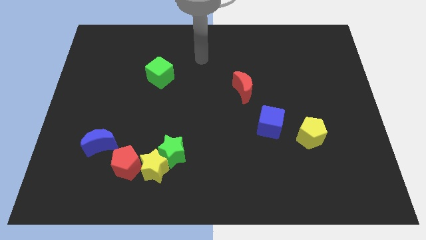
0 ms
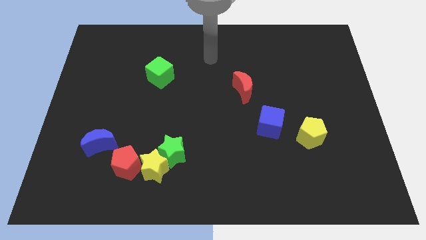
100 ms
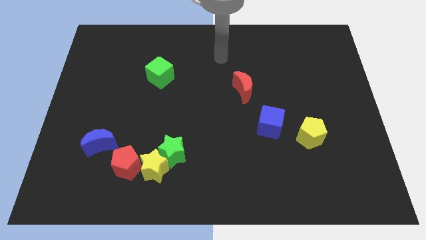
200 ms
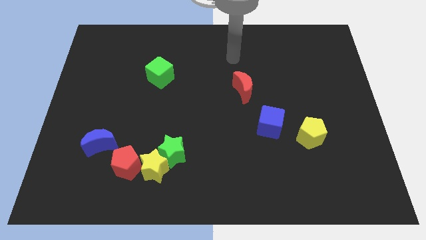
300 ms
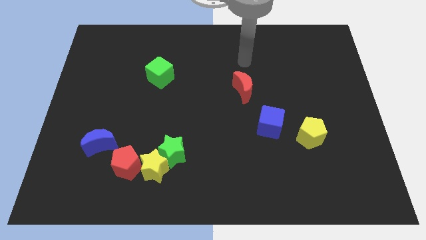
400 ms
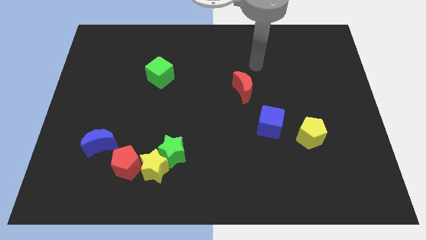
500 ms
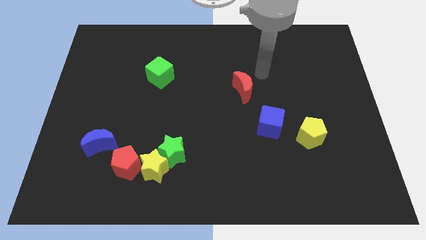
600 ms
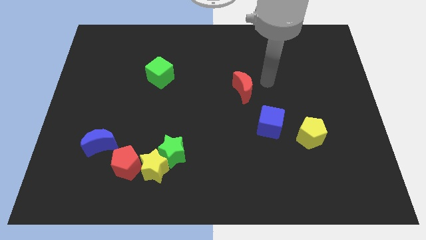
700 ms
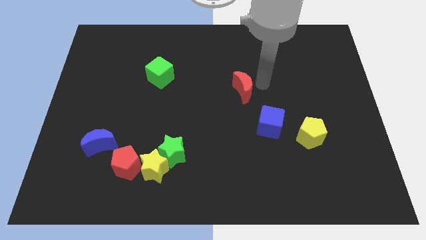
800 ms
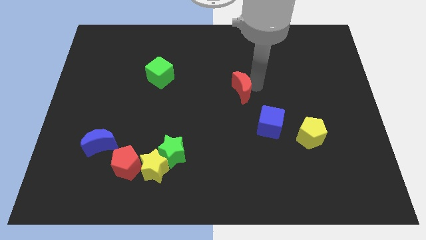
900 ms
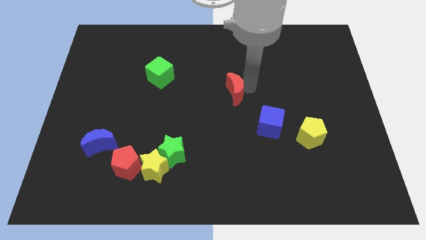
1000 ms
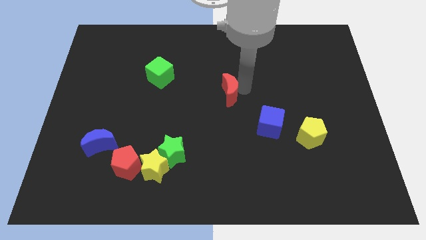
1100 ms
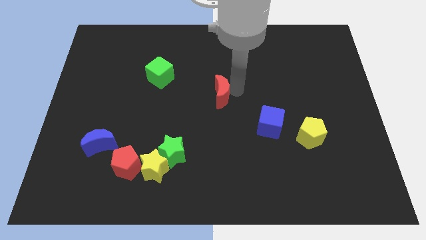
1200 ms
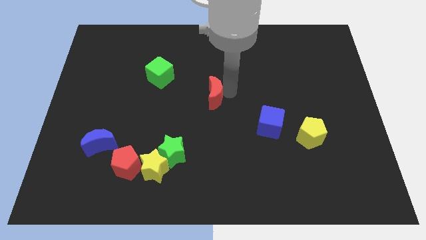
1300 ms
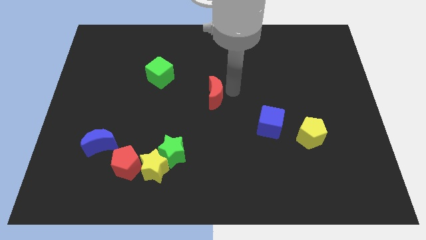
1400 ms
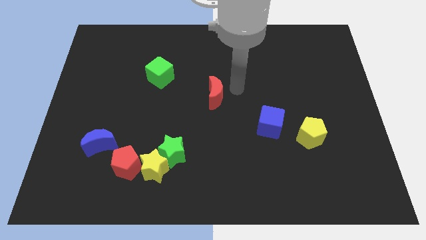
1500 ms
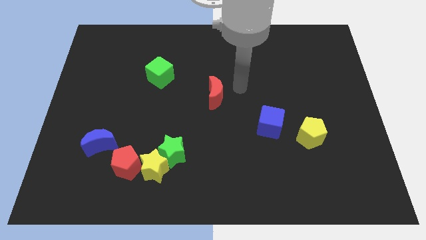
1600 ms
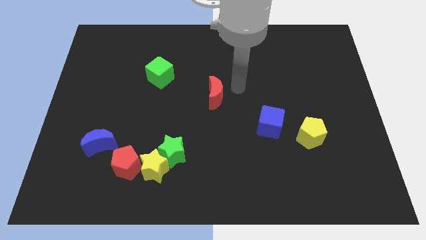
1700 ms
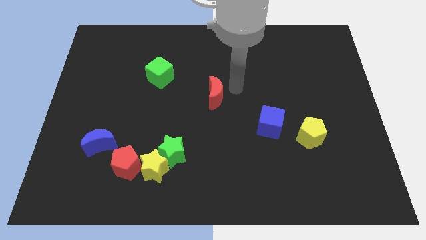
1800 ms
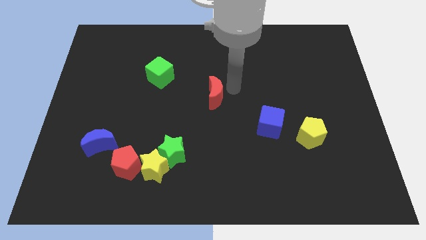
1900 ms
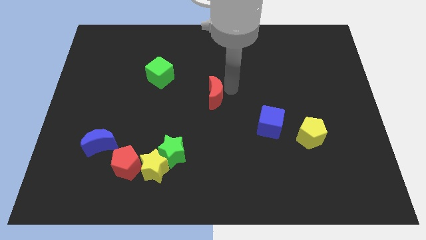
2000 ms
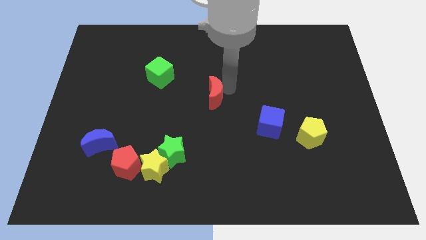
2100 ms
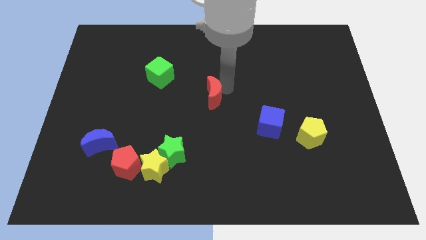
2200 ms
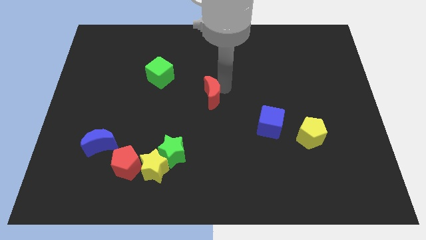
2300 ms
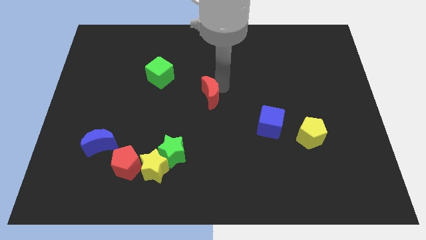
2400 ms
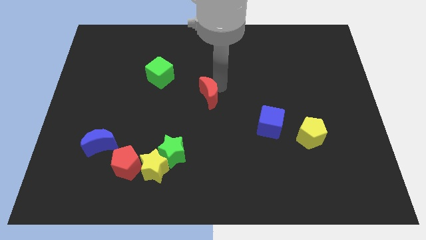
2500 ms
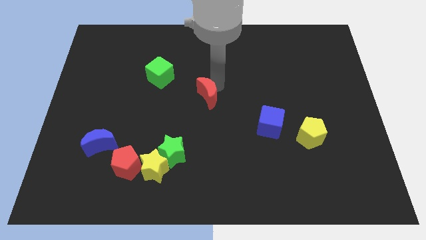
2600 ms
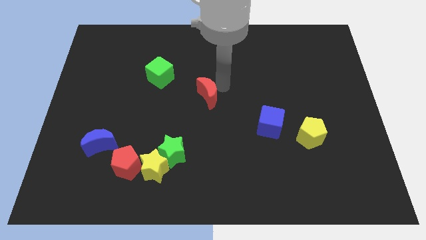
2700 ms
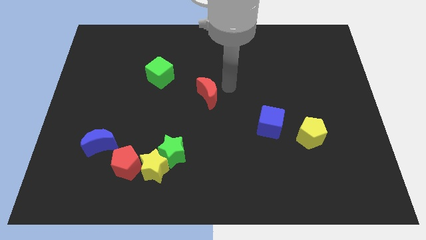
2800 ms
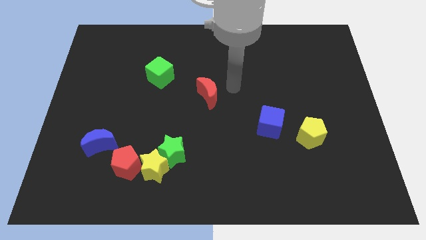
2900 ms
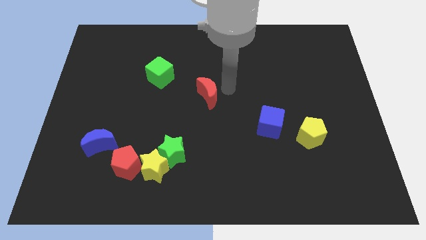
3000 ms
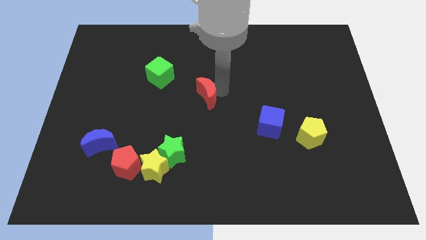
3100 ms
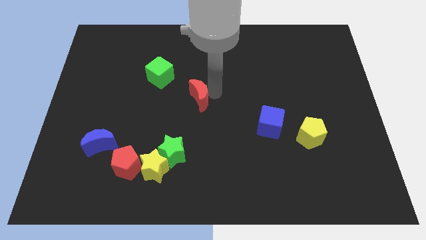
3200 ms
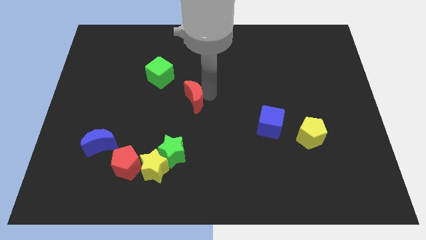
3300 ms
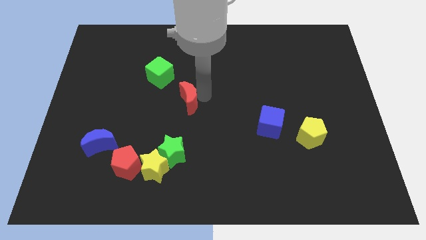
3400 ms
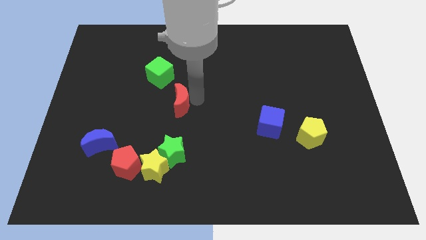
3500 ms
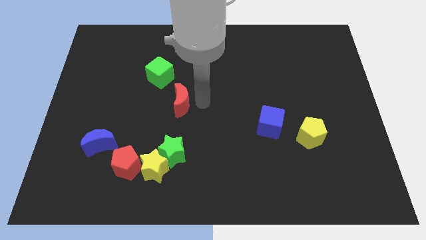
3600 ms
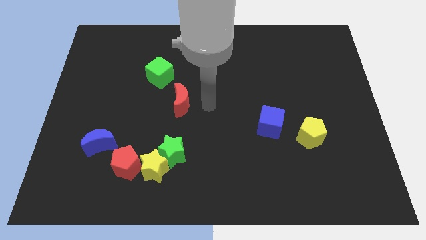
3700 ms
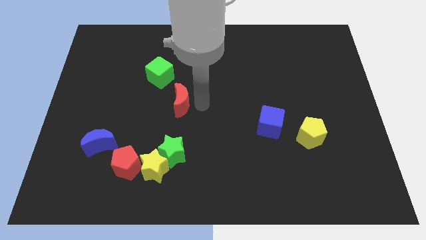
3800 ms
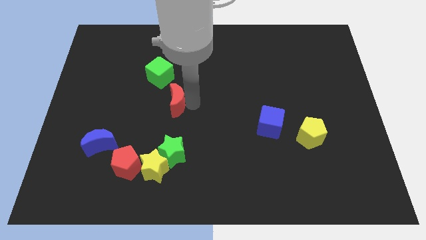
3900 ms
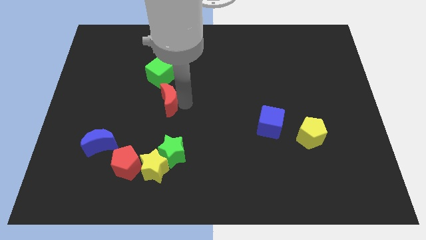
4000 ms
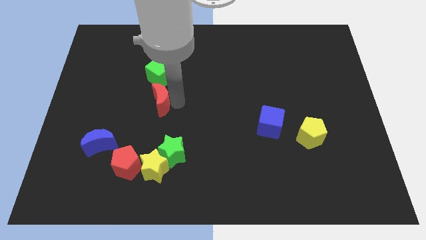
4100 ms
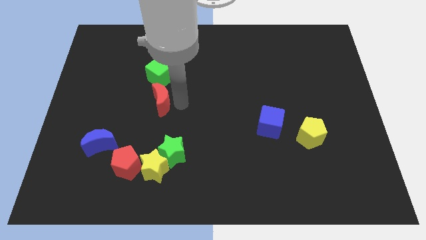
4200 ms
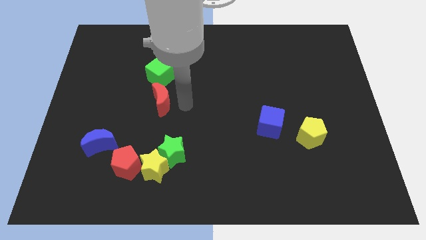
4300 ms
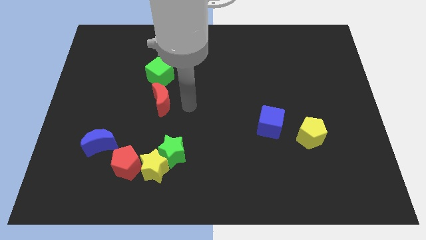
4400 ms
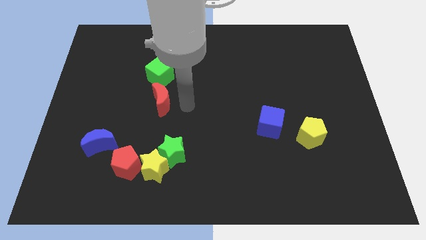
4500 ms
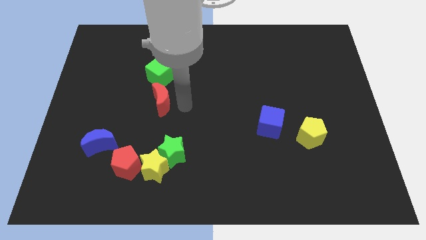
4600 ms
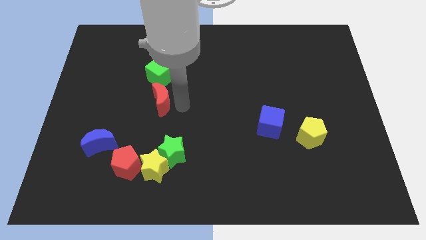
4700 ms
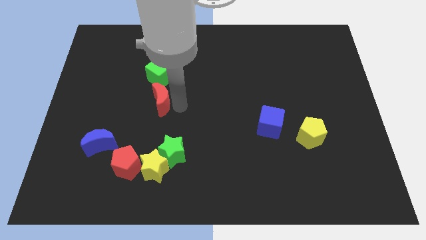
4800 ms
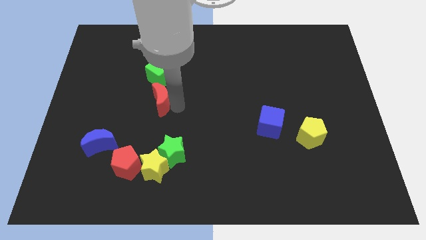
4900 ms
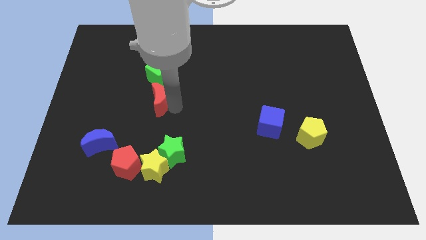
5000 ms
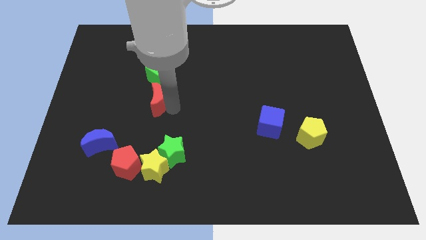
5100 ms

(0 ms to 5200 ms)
slide the red moon left

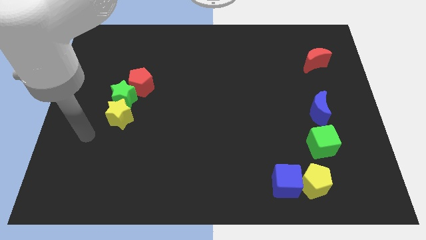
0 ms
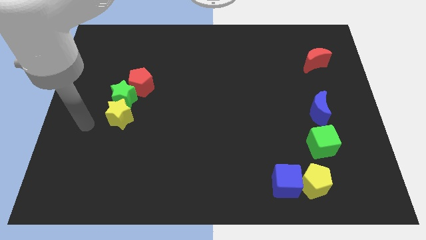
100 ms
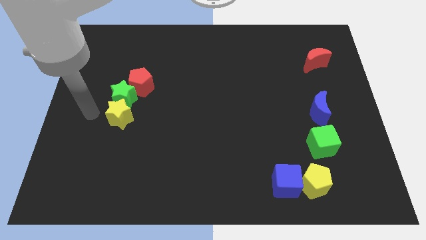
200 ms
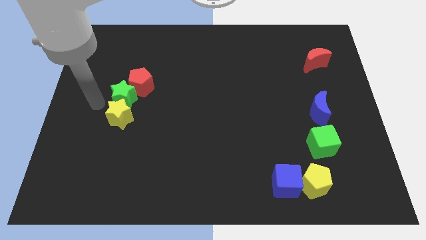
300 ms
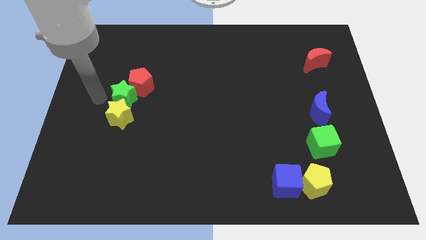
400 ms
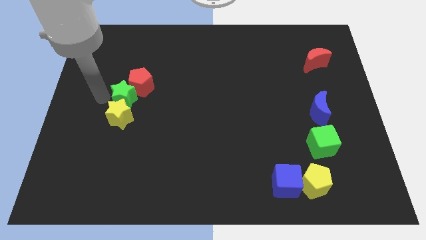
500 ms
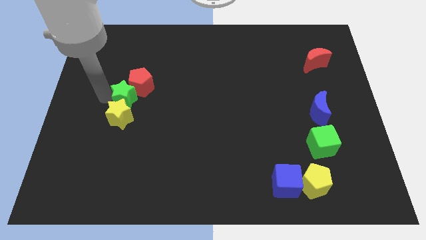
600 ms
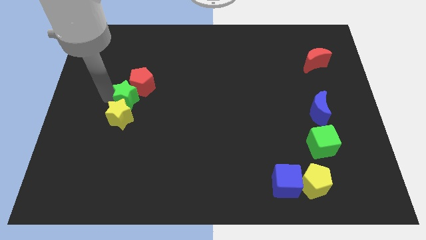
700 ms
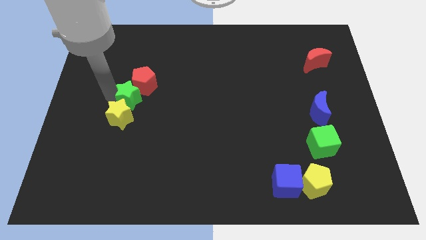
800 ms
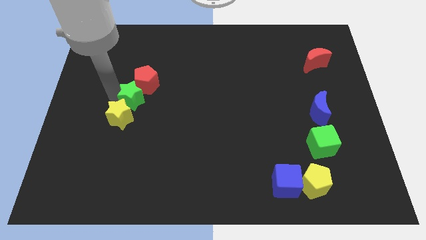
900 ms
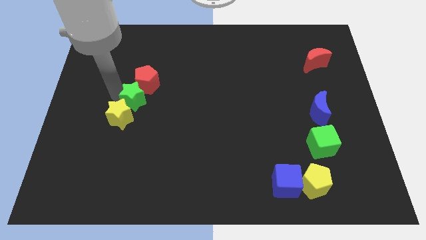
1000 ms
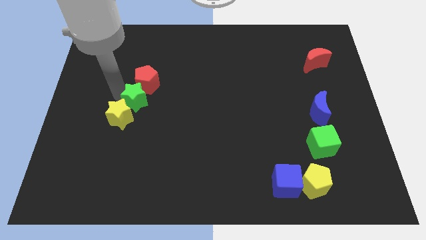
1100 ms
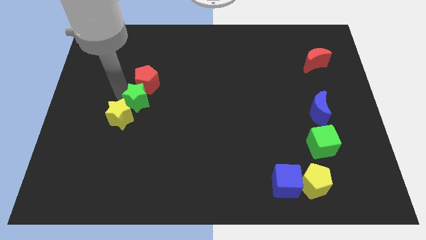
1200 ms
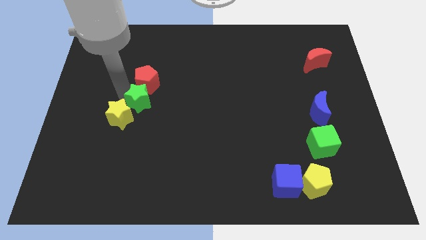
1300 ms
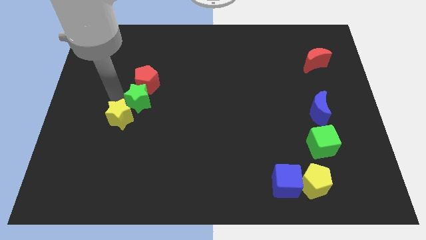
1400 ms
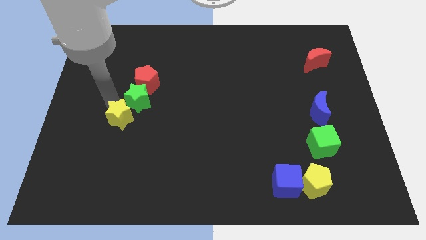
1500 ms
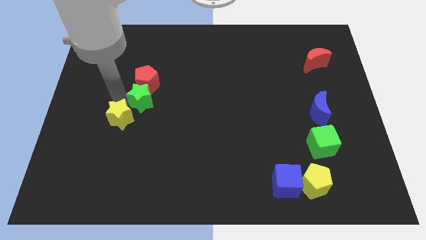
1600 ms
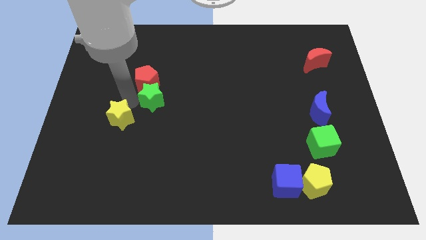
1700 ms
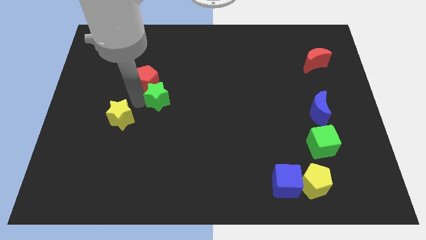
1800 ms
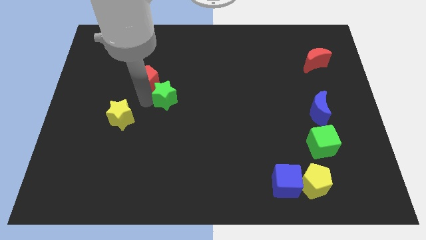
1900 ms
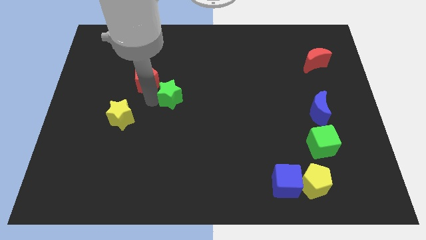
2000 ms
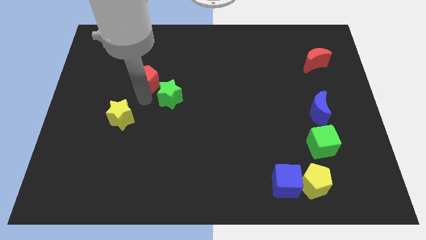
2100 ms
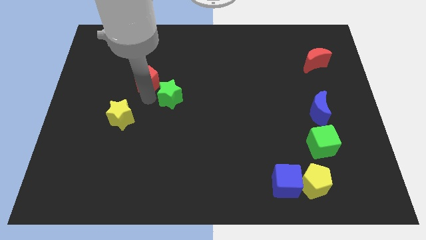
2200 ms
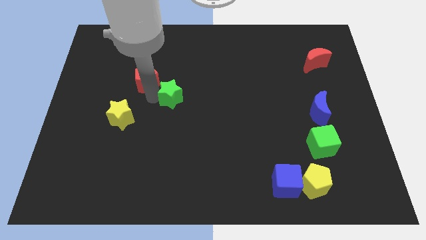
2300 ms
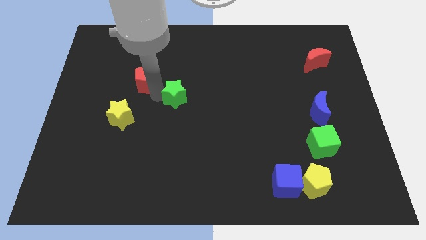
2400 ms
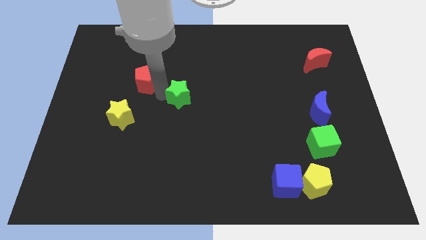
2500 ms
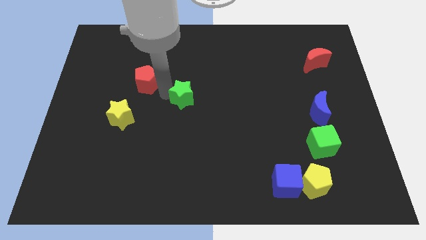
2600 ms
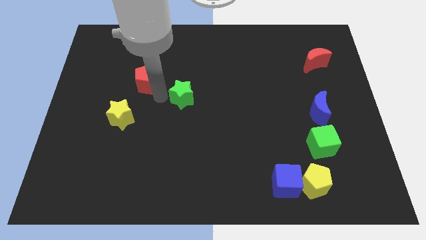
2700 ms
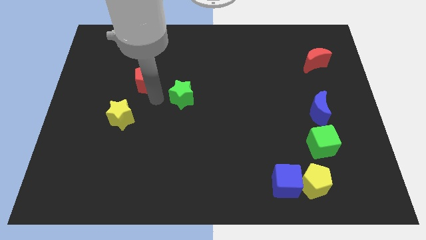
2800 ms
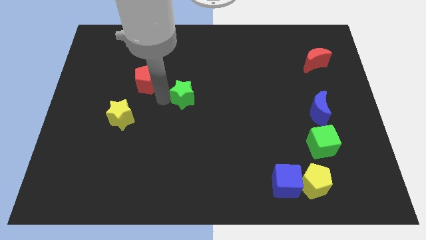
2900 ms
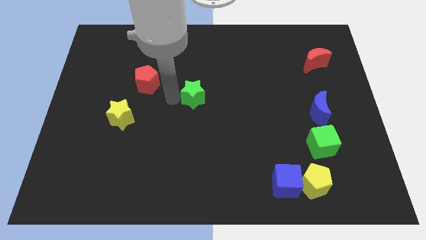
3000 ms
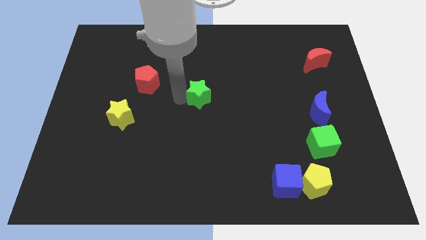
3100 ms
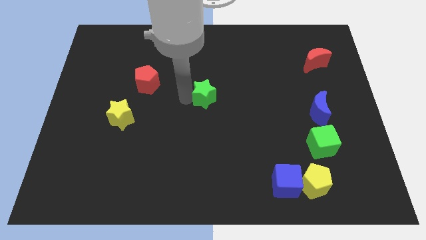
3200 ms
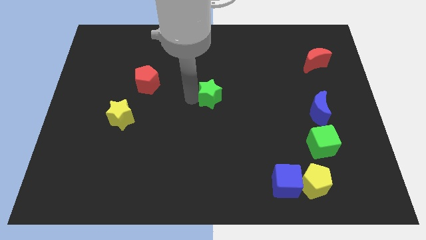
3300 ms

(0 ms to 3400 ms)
move the green star to the right
